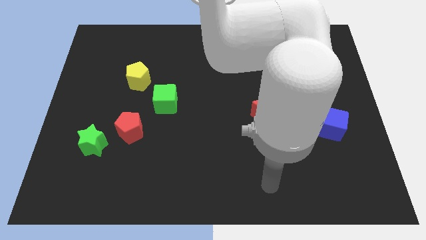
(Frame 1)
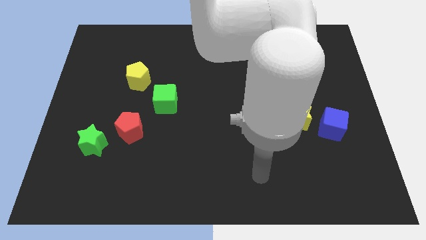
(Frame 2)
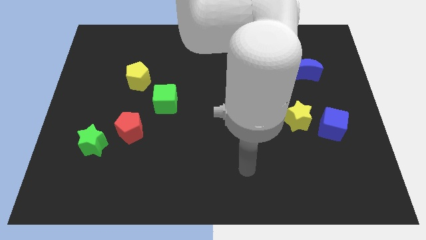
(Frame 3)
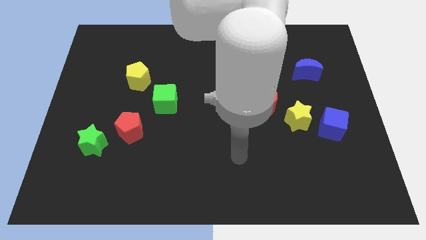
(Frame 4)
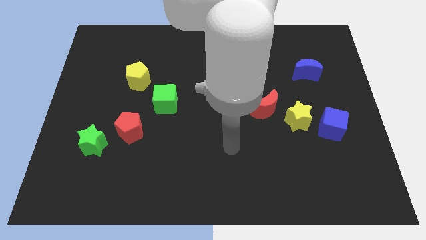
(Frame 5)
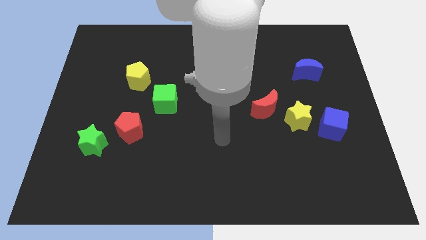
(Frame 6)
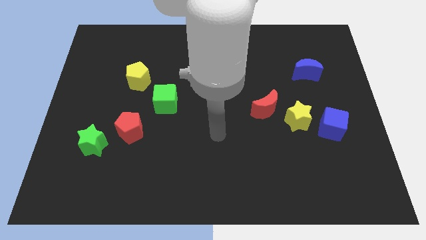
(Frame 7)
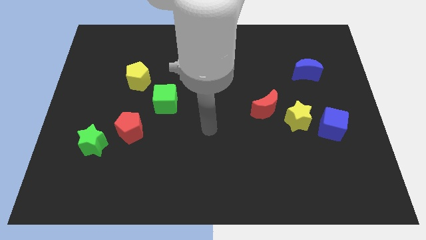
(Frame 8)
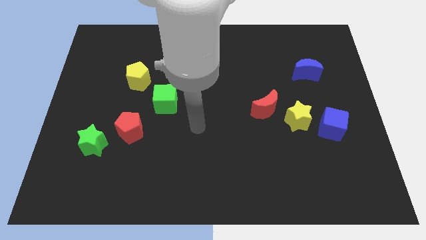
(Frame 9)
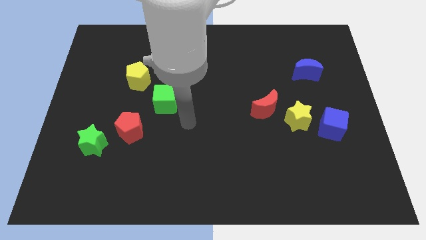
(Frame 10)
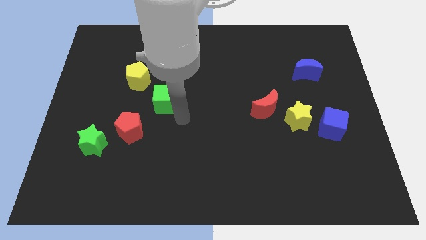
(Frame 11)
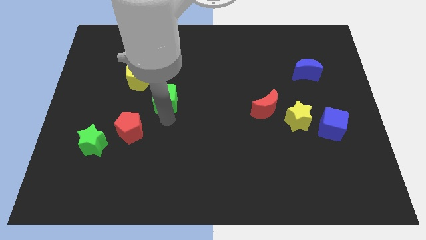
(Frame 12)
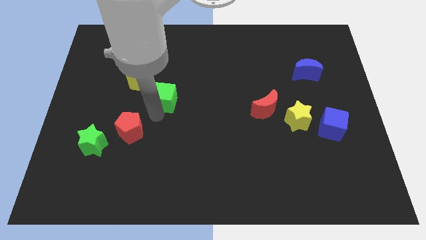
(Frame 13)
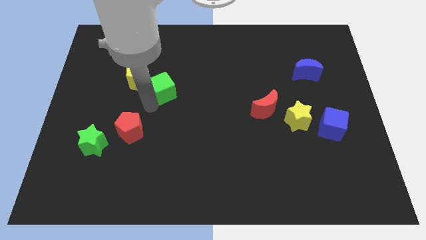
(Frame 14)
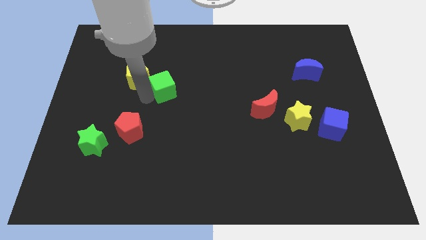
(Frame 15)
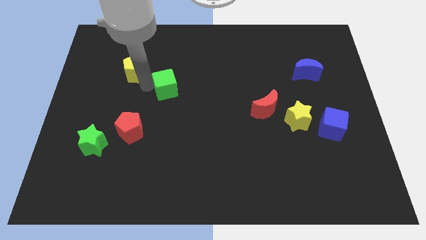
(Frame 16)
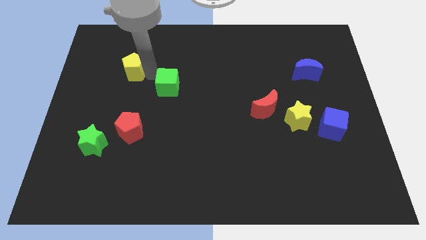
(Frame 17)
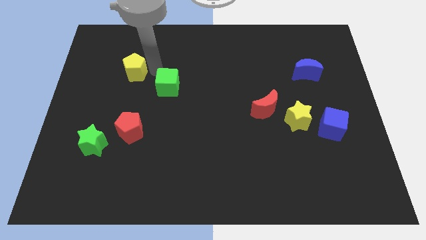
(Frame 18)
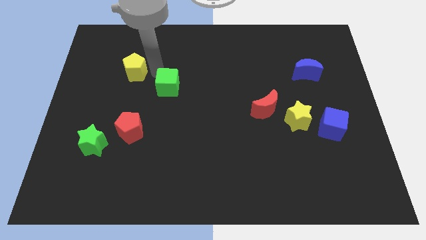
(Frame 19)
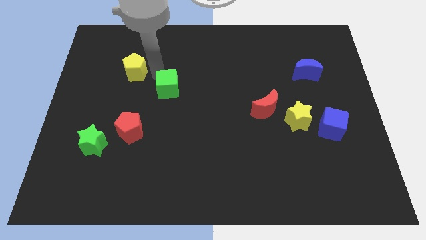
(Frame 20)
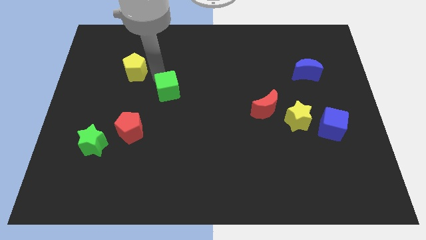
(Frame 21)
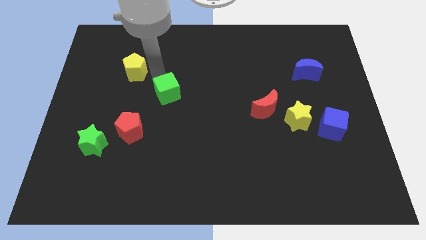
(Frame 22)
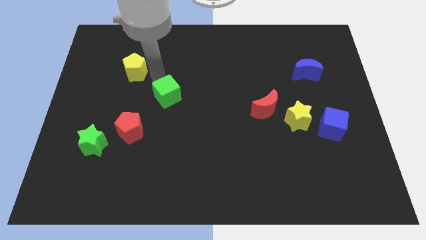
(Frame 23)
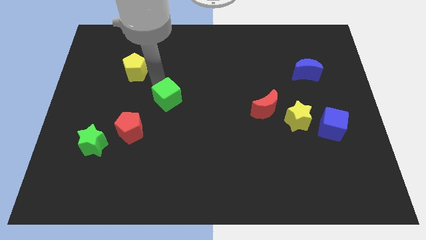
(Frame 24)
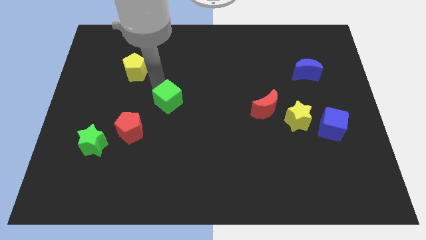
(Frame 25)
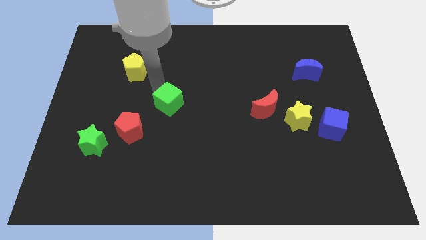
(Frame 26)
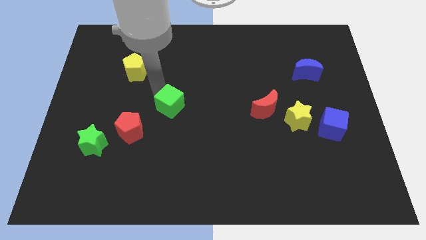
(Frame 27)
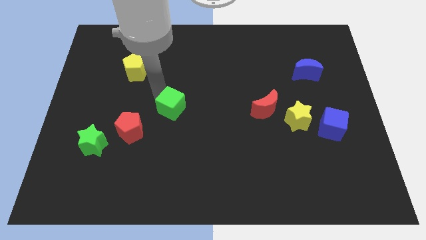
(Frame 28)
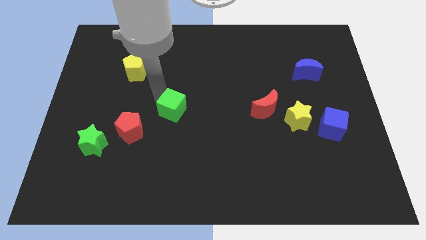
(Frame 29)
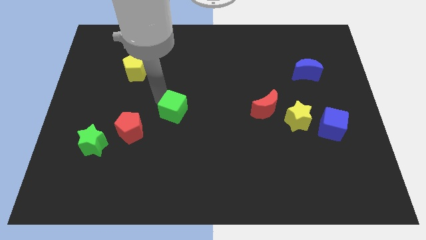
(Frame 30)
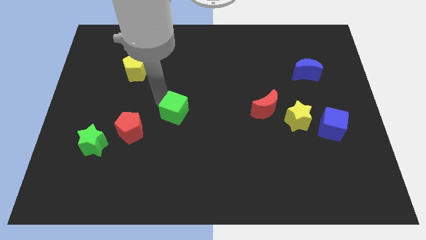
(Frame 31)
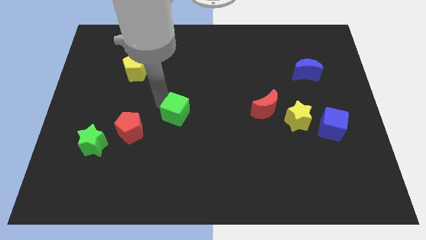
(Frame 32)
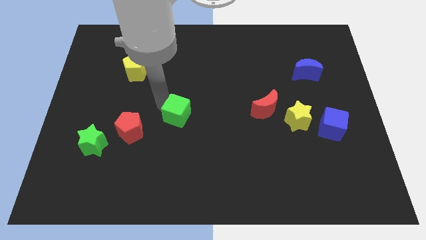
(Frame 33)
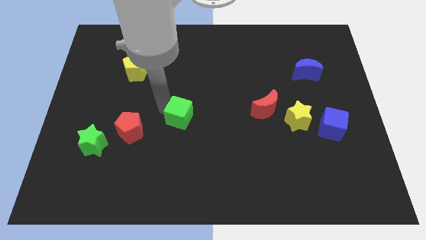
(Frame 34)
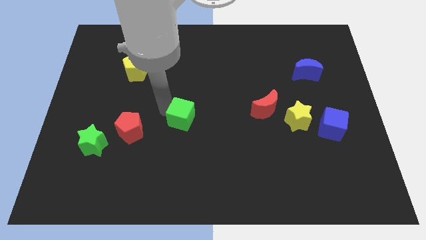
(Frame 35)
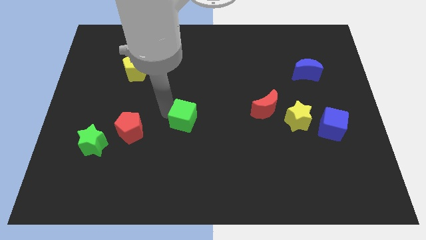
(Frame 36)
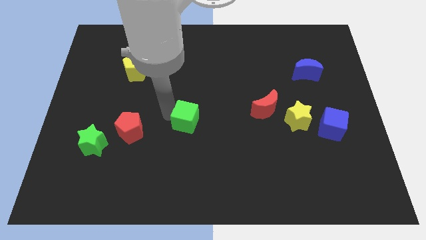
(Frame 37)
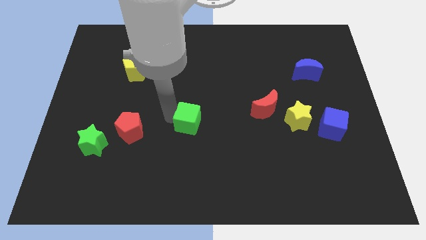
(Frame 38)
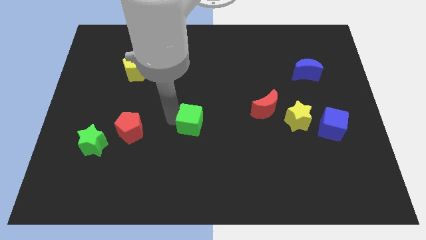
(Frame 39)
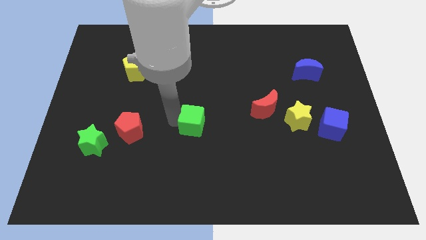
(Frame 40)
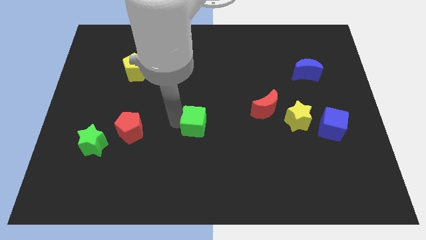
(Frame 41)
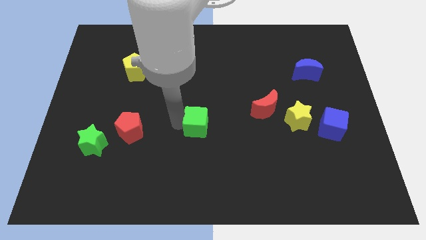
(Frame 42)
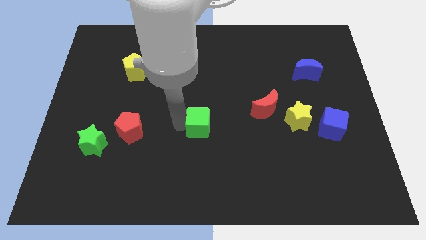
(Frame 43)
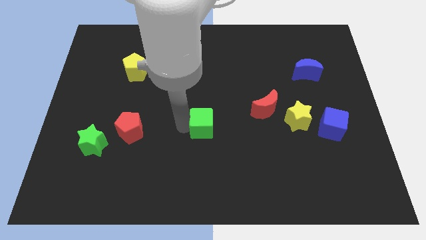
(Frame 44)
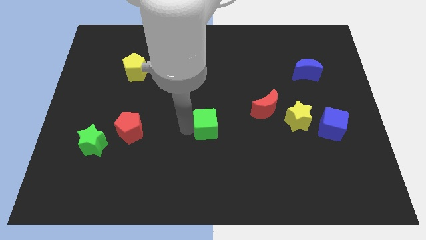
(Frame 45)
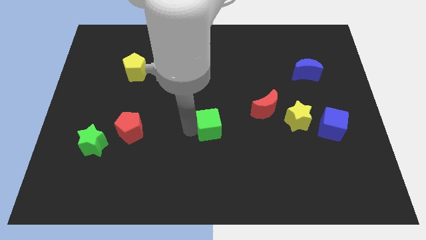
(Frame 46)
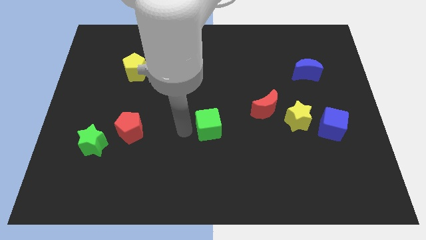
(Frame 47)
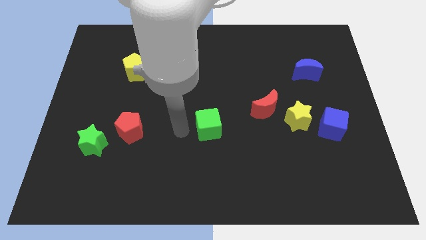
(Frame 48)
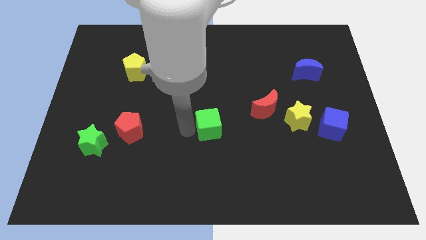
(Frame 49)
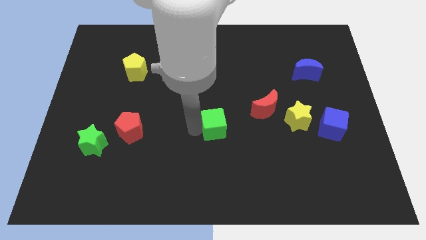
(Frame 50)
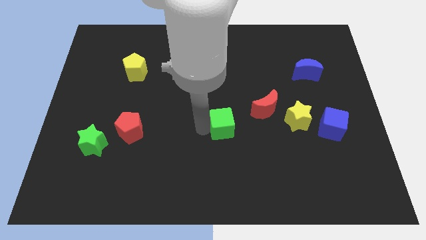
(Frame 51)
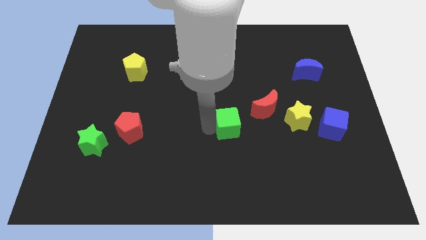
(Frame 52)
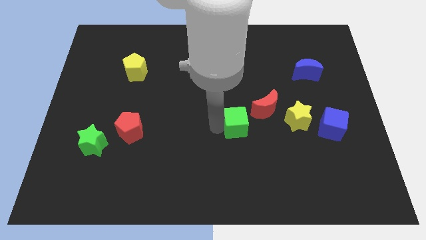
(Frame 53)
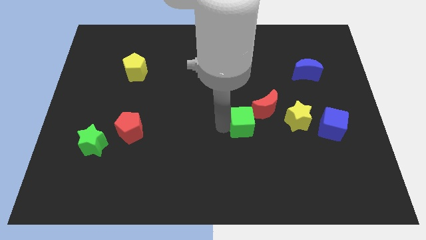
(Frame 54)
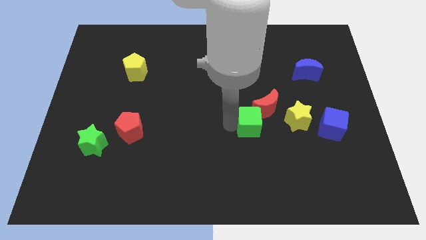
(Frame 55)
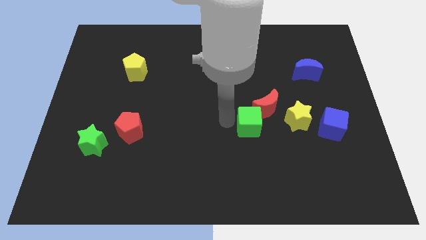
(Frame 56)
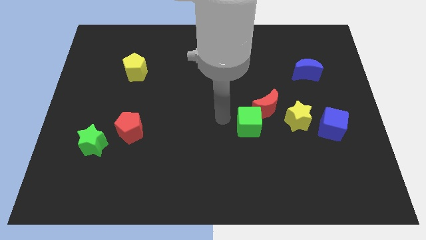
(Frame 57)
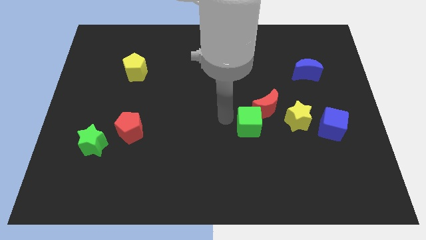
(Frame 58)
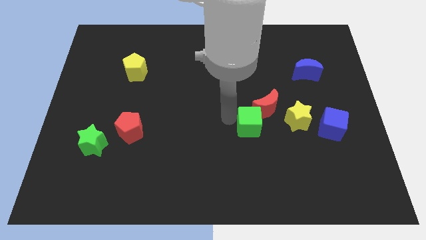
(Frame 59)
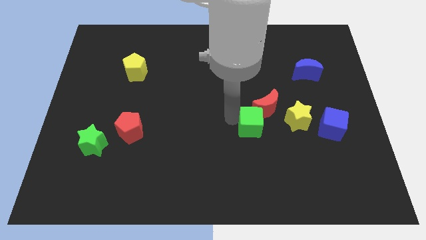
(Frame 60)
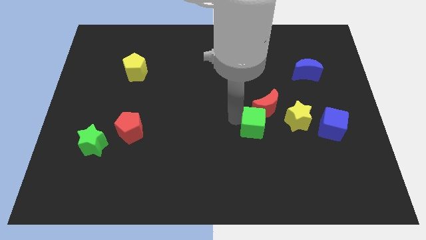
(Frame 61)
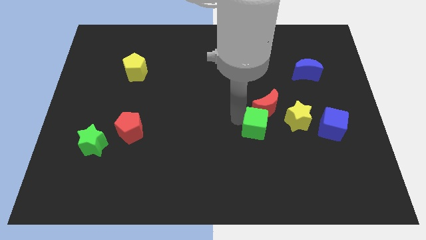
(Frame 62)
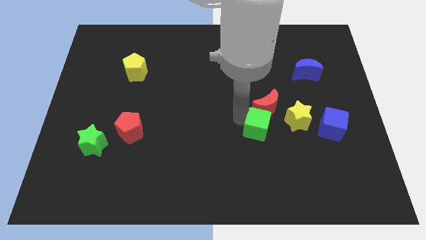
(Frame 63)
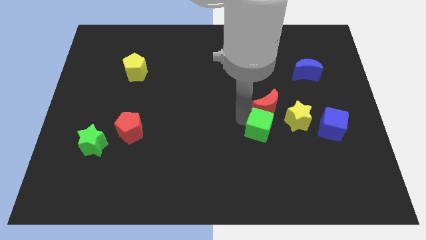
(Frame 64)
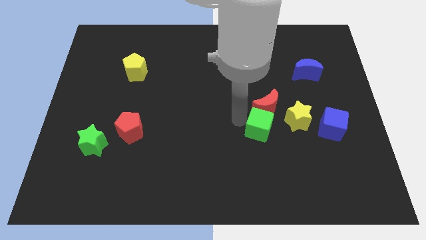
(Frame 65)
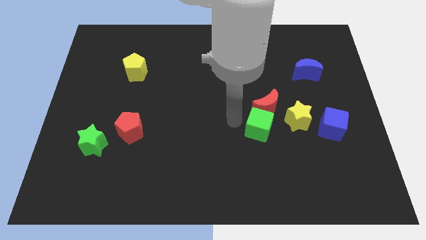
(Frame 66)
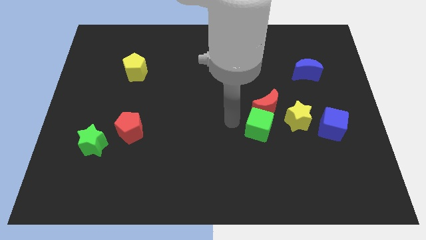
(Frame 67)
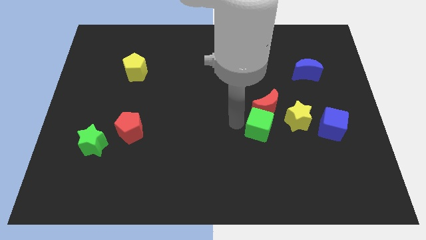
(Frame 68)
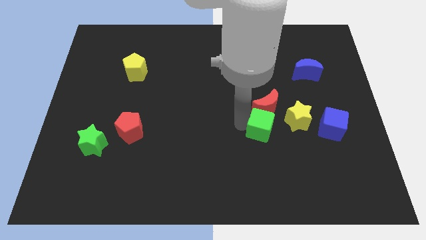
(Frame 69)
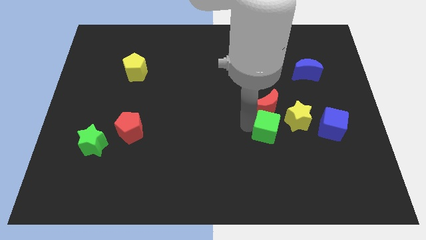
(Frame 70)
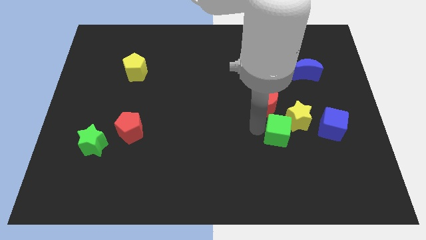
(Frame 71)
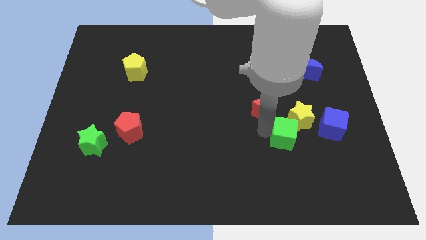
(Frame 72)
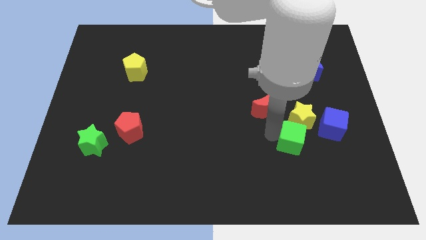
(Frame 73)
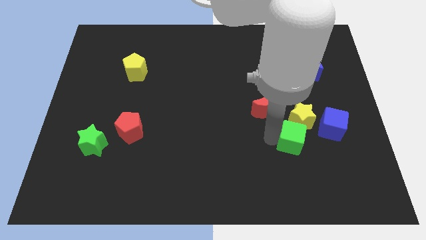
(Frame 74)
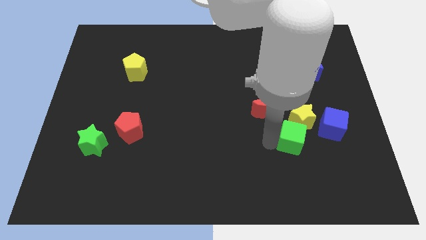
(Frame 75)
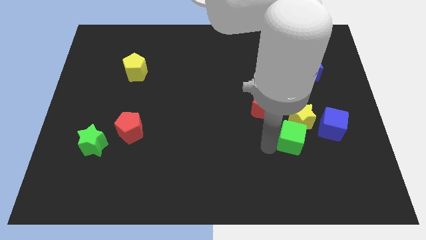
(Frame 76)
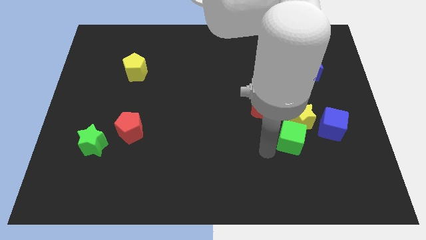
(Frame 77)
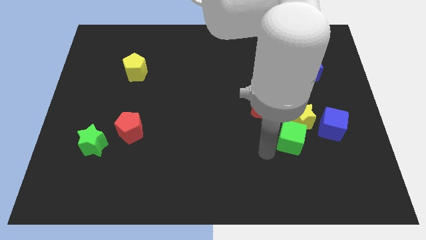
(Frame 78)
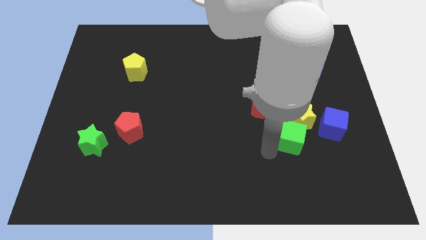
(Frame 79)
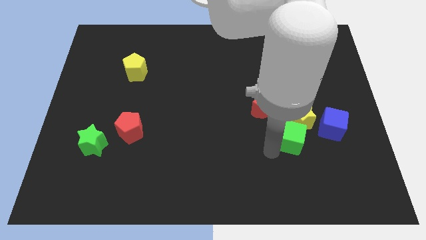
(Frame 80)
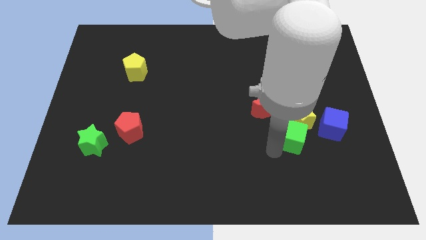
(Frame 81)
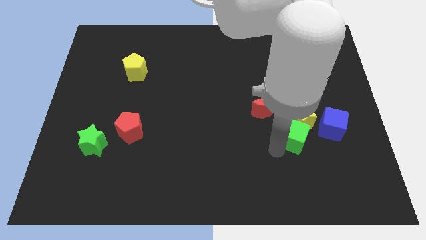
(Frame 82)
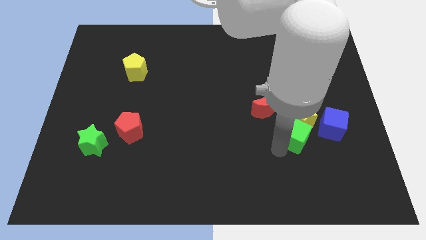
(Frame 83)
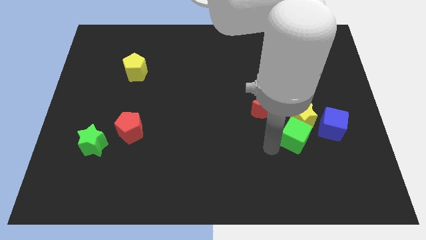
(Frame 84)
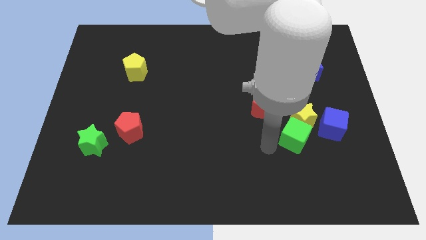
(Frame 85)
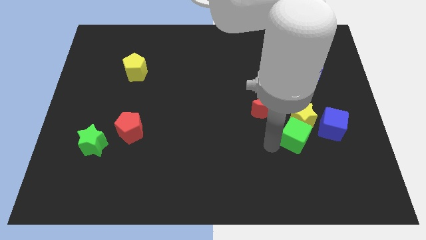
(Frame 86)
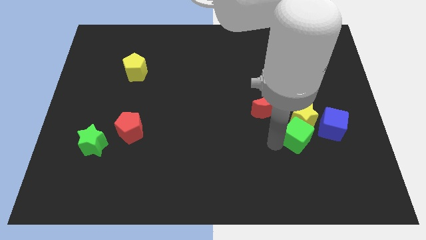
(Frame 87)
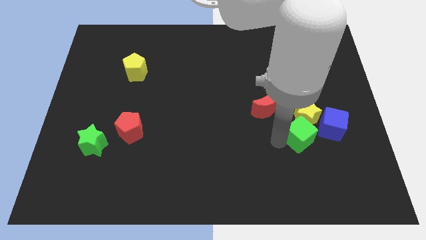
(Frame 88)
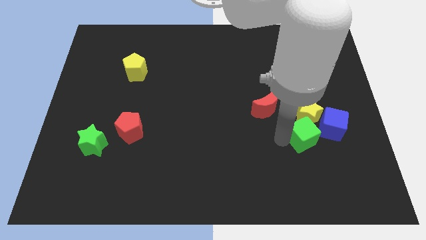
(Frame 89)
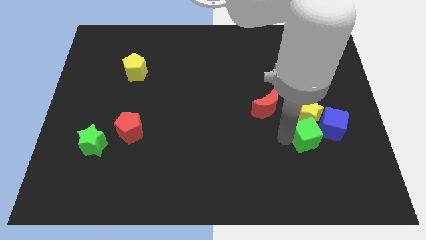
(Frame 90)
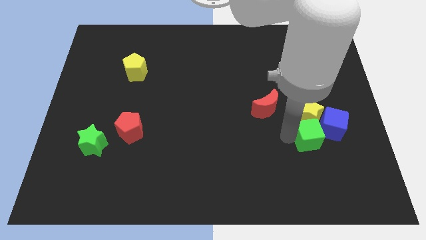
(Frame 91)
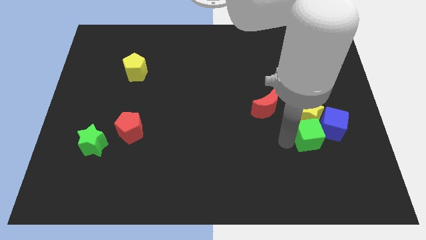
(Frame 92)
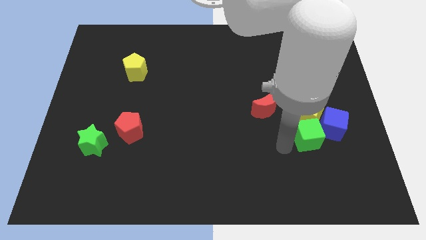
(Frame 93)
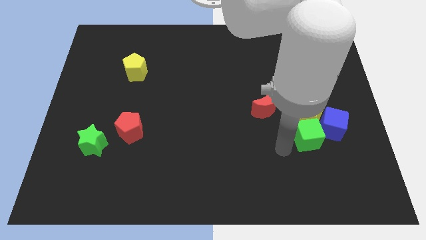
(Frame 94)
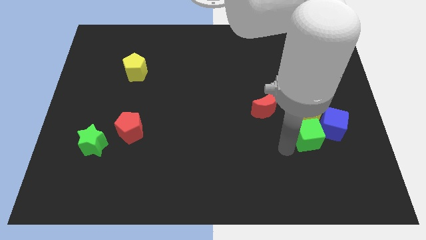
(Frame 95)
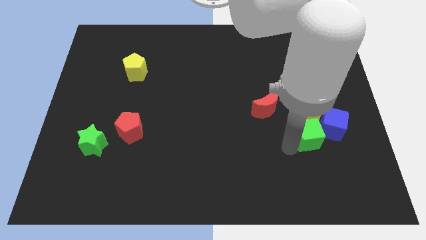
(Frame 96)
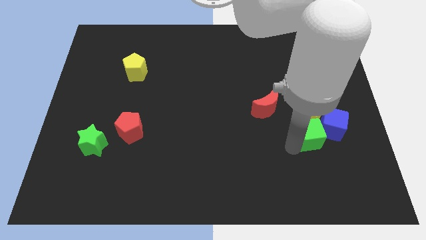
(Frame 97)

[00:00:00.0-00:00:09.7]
push the green cube to the blue cube
